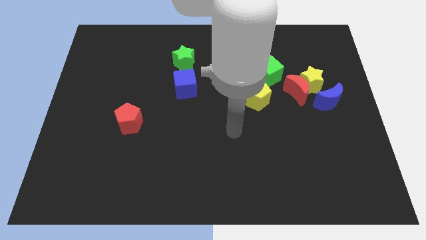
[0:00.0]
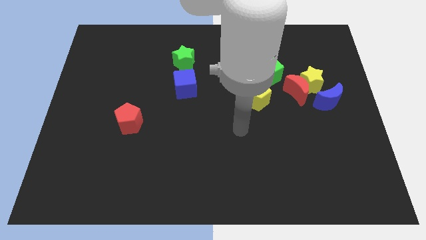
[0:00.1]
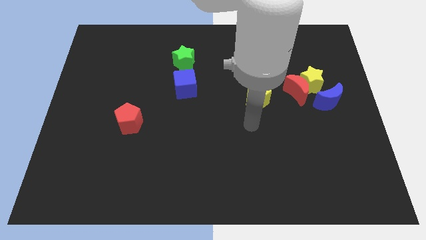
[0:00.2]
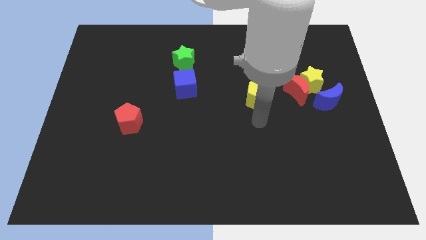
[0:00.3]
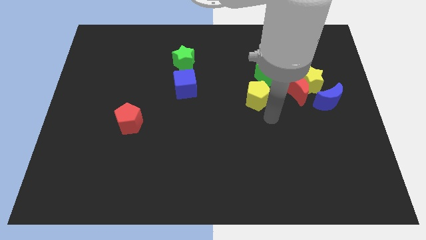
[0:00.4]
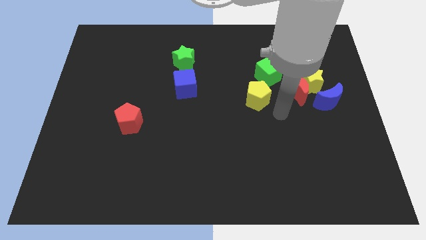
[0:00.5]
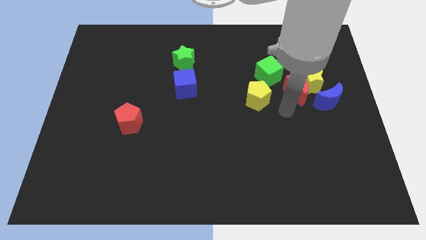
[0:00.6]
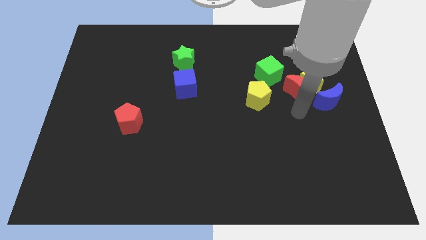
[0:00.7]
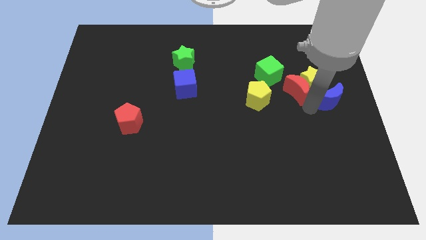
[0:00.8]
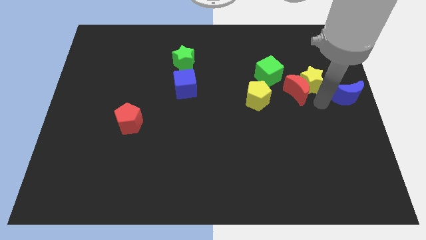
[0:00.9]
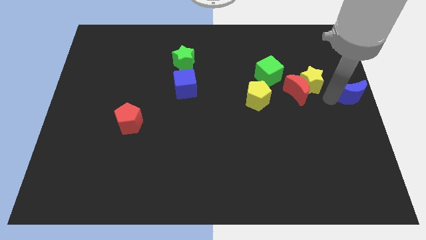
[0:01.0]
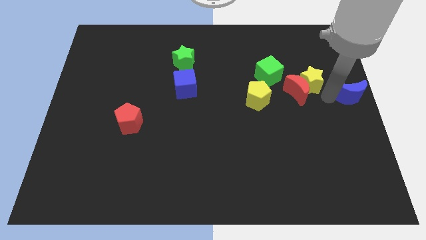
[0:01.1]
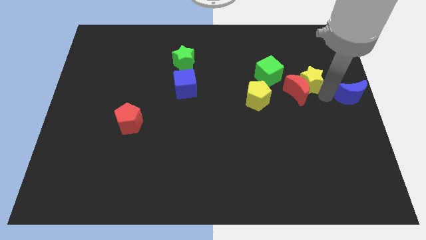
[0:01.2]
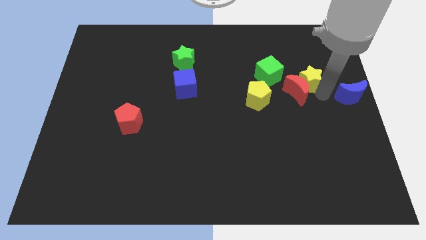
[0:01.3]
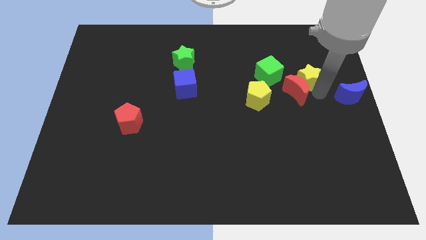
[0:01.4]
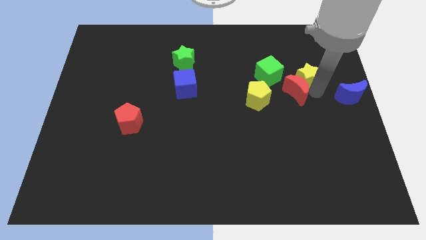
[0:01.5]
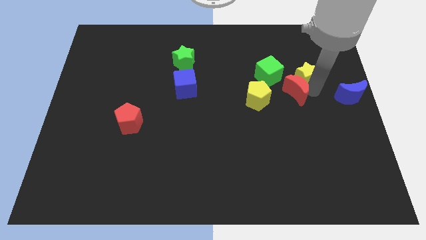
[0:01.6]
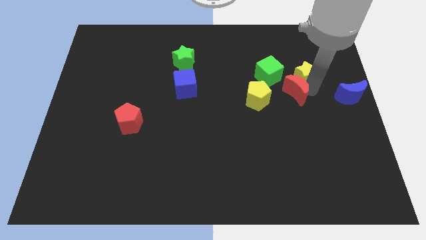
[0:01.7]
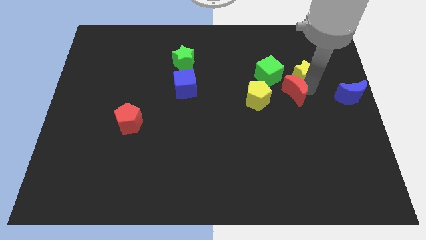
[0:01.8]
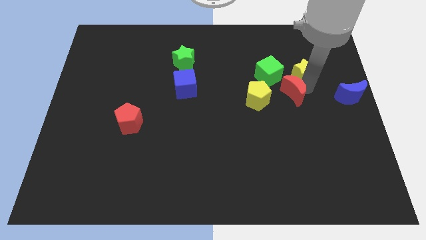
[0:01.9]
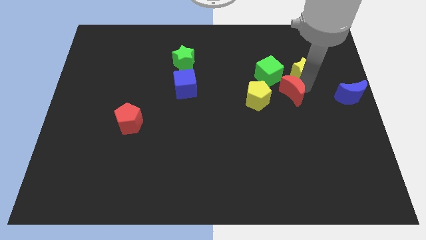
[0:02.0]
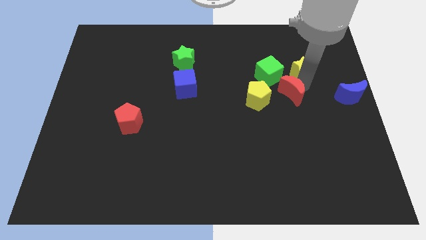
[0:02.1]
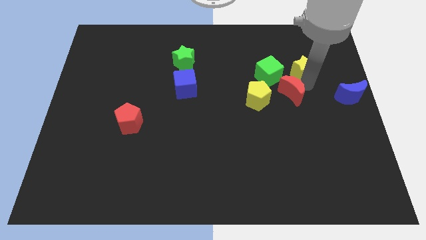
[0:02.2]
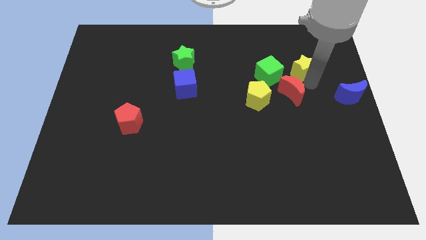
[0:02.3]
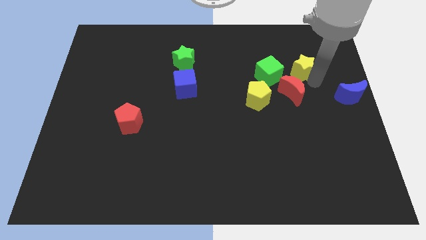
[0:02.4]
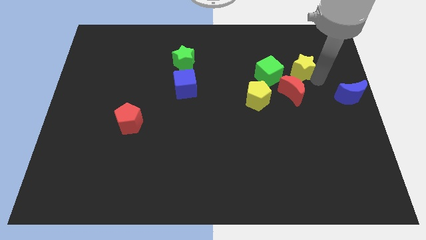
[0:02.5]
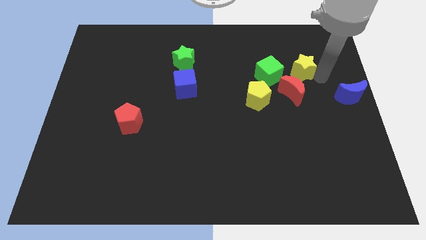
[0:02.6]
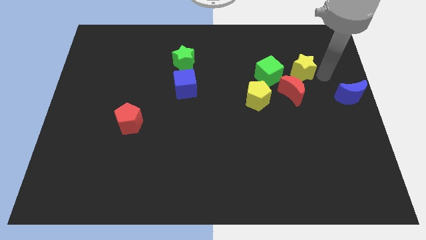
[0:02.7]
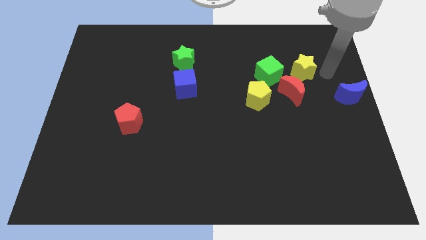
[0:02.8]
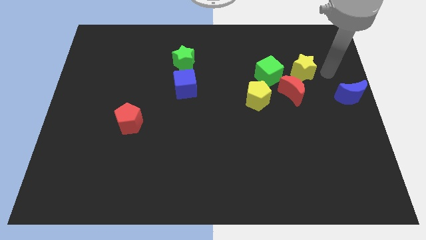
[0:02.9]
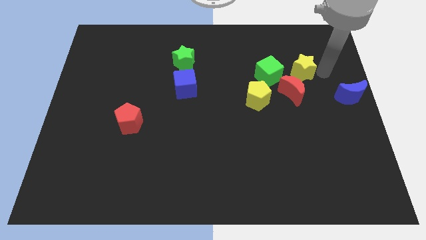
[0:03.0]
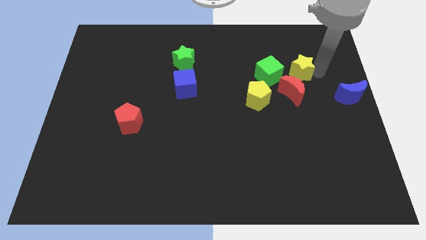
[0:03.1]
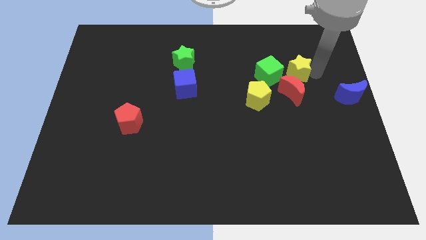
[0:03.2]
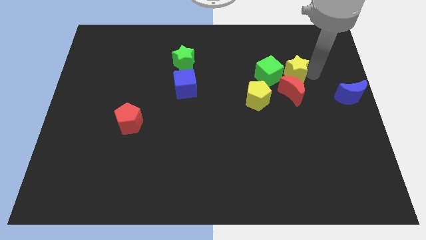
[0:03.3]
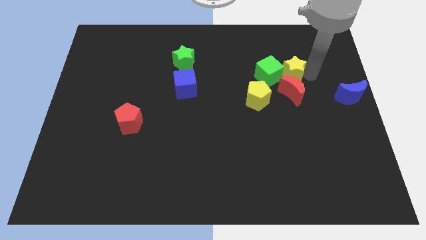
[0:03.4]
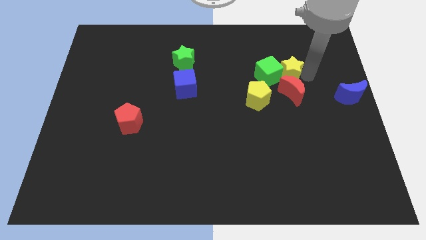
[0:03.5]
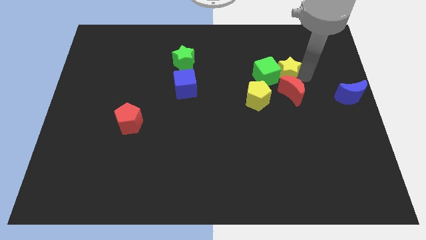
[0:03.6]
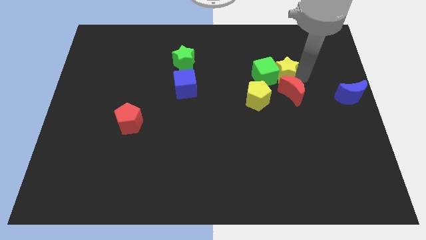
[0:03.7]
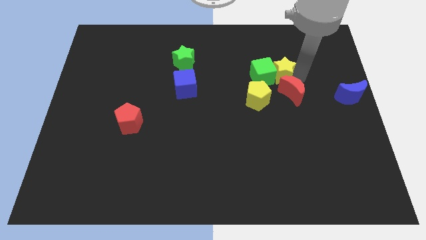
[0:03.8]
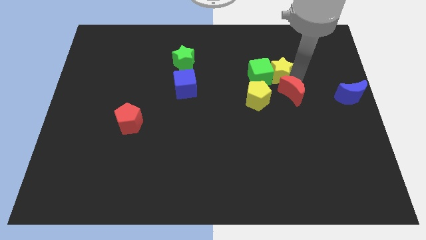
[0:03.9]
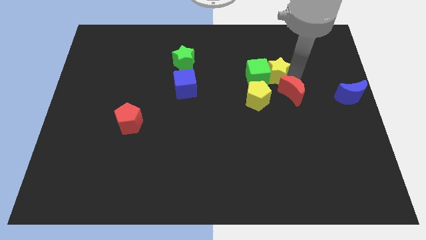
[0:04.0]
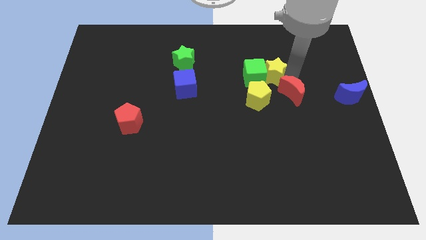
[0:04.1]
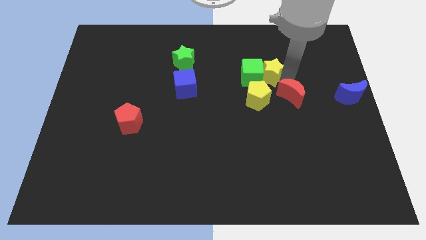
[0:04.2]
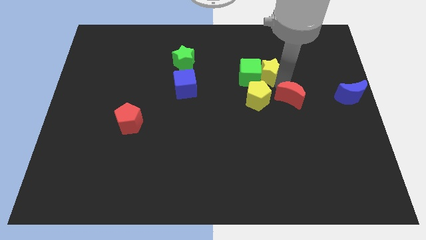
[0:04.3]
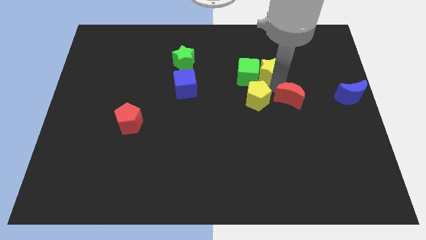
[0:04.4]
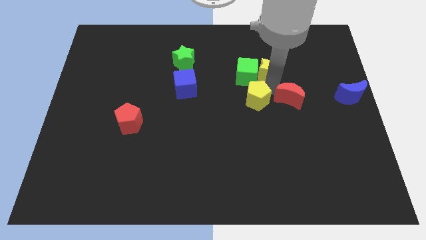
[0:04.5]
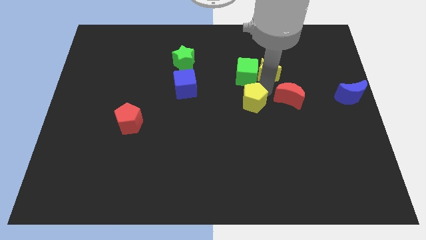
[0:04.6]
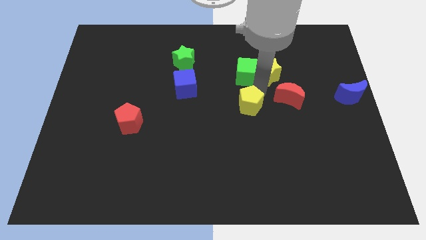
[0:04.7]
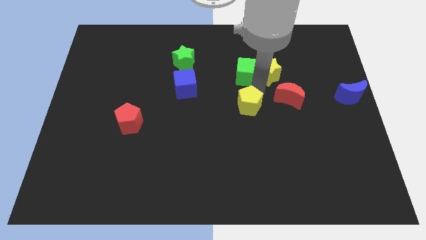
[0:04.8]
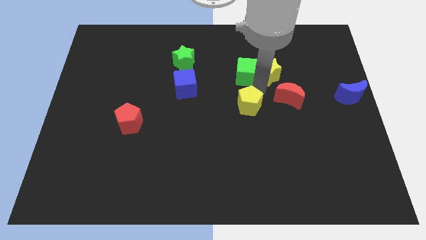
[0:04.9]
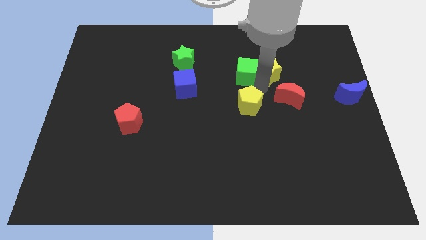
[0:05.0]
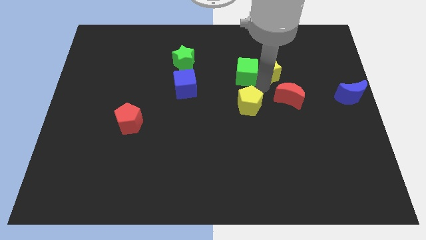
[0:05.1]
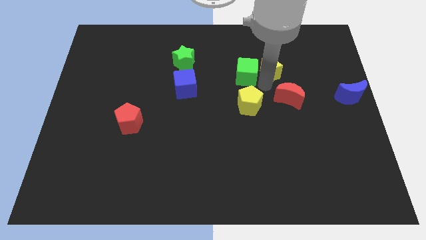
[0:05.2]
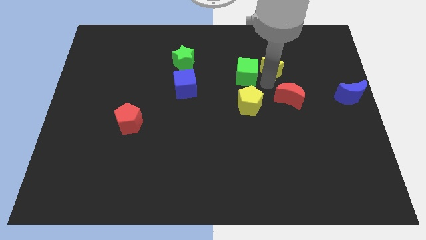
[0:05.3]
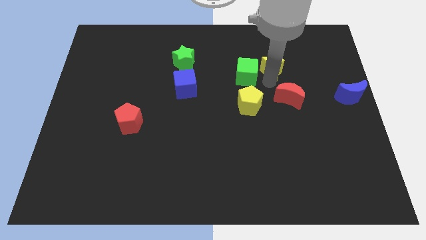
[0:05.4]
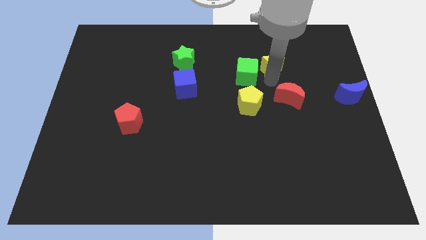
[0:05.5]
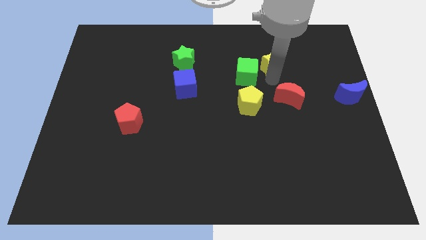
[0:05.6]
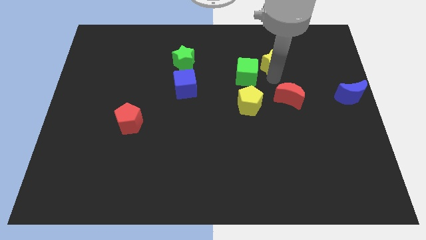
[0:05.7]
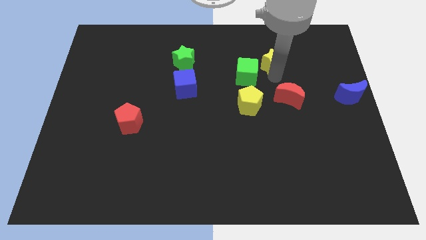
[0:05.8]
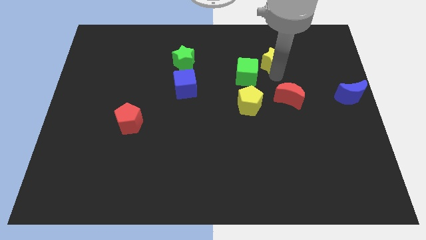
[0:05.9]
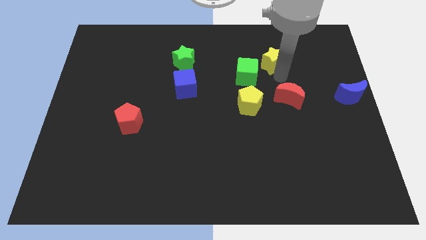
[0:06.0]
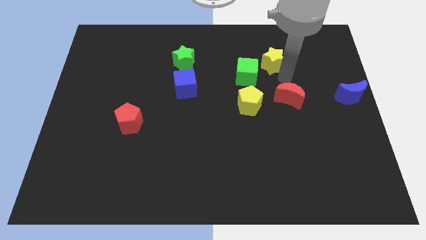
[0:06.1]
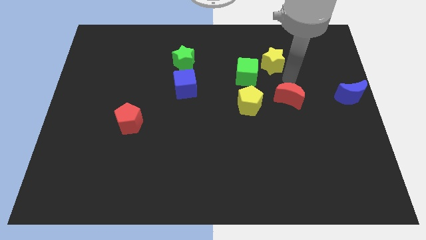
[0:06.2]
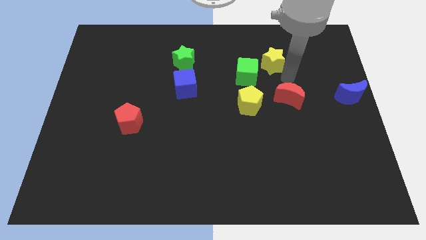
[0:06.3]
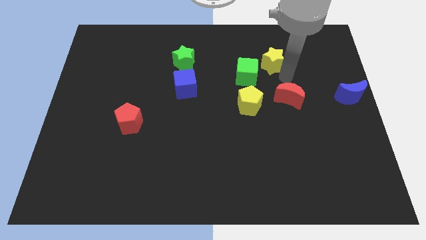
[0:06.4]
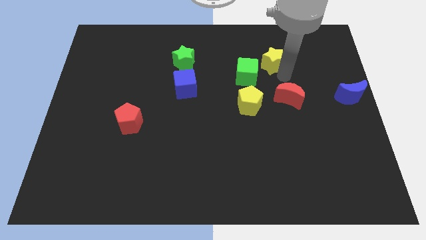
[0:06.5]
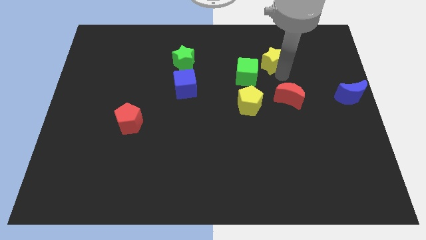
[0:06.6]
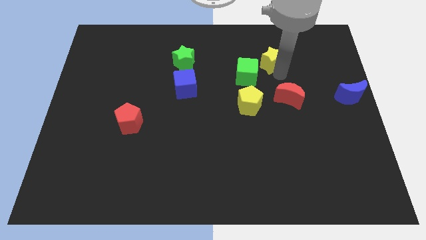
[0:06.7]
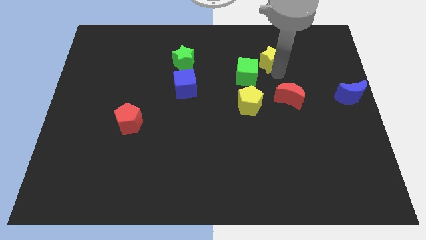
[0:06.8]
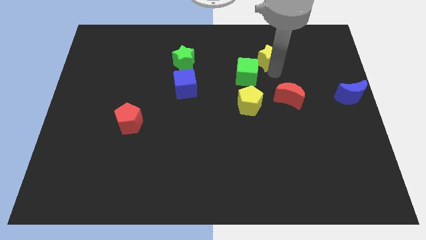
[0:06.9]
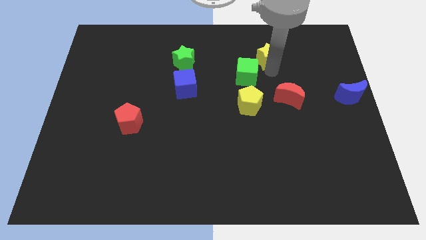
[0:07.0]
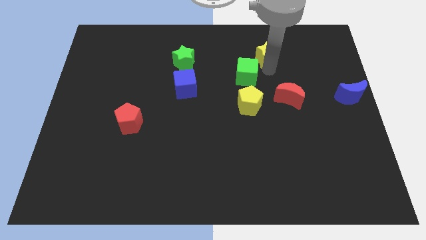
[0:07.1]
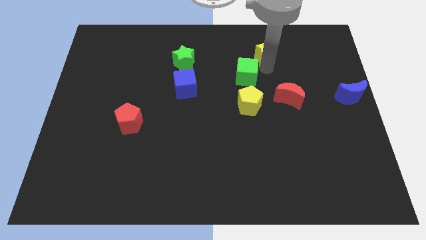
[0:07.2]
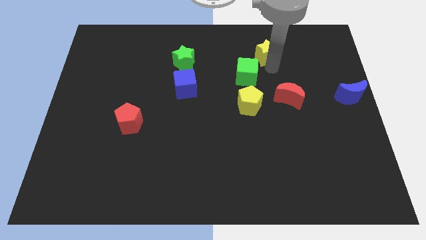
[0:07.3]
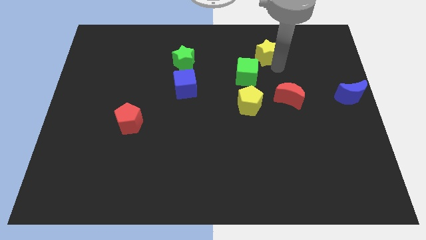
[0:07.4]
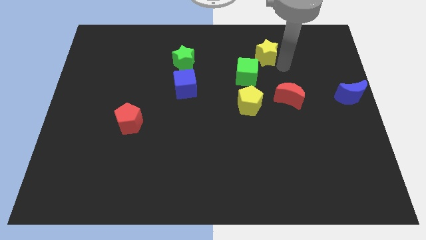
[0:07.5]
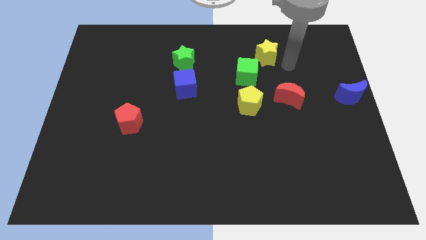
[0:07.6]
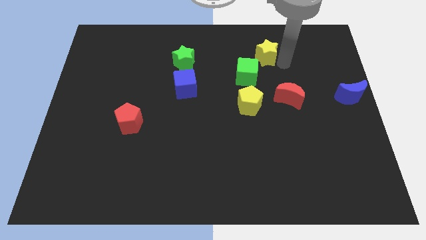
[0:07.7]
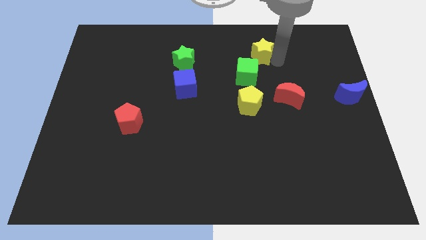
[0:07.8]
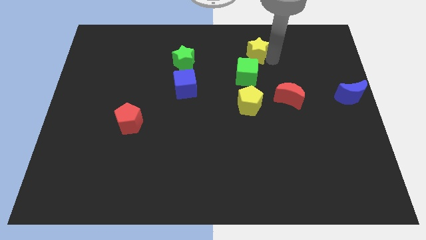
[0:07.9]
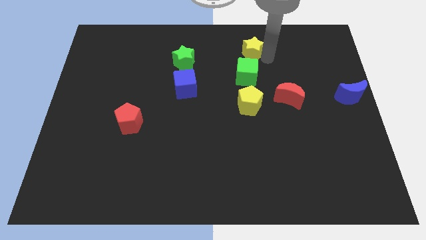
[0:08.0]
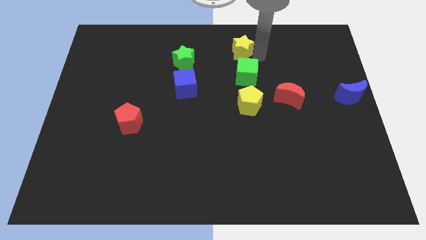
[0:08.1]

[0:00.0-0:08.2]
push the yellow star to the top side
